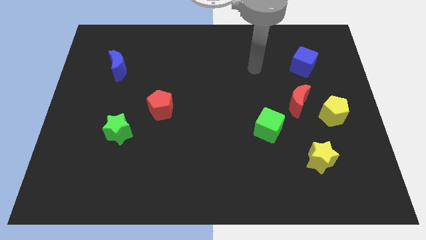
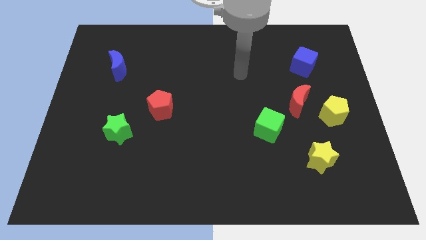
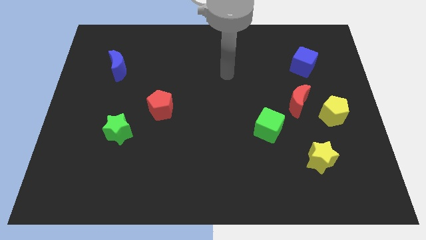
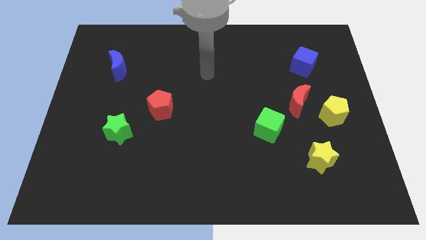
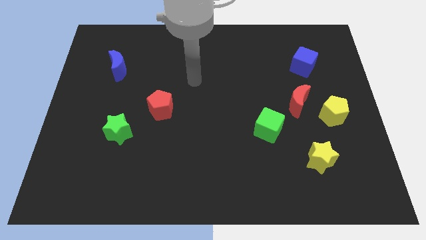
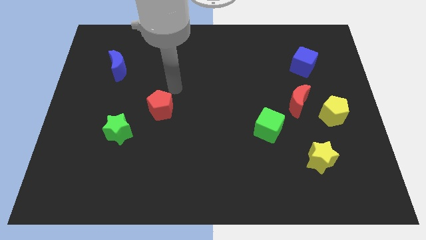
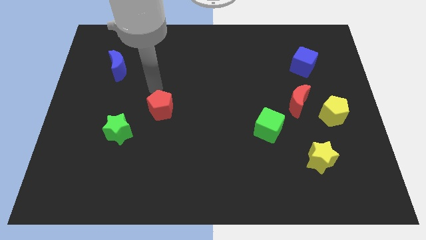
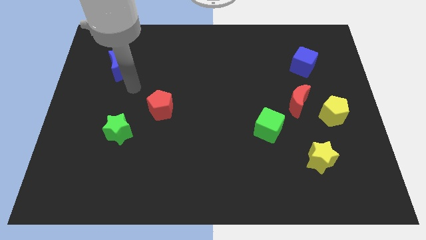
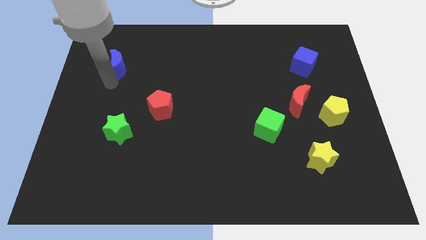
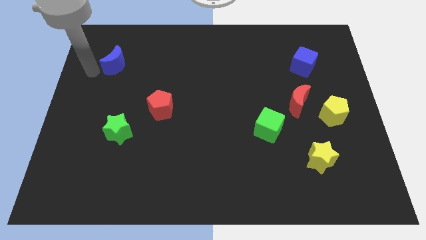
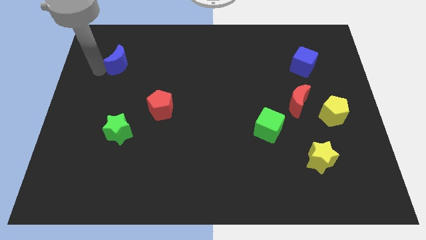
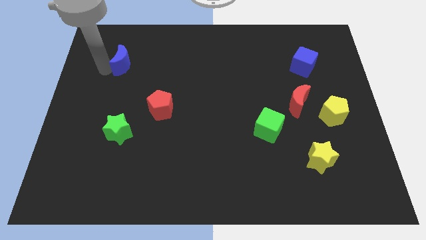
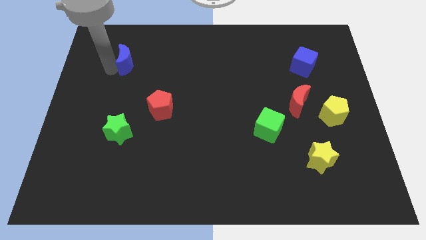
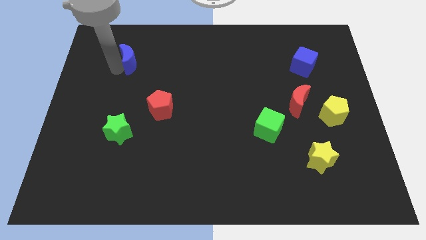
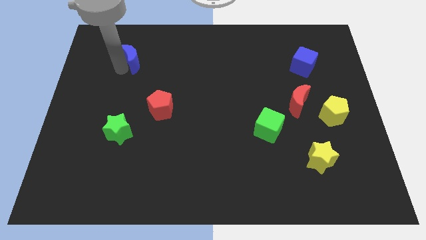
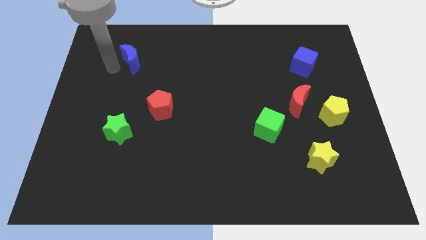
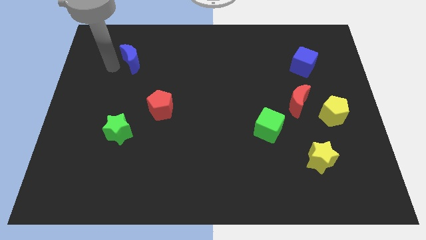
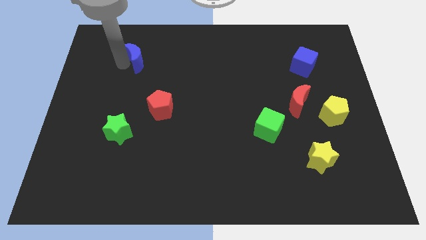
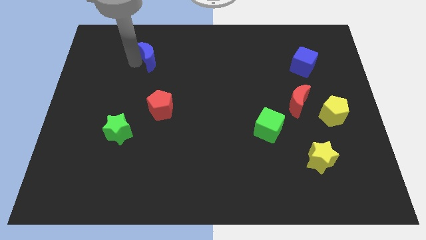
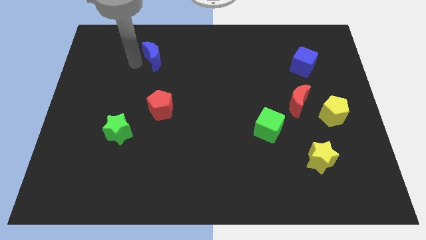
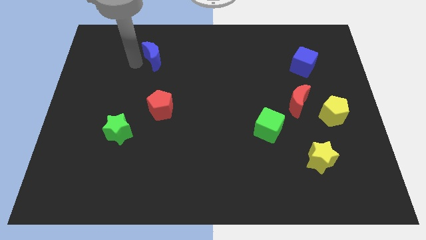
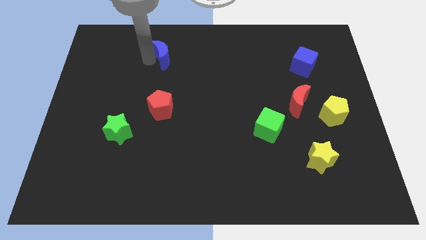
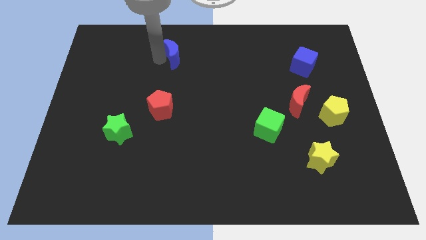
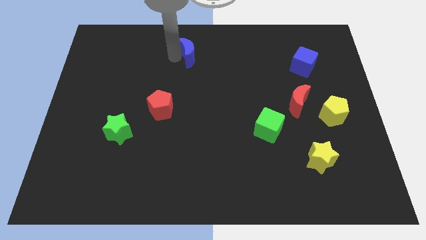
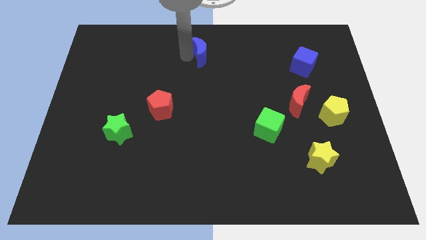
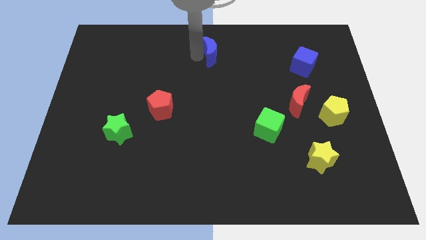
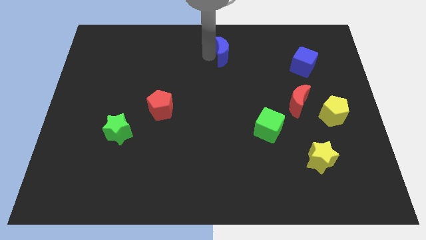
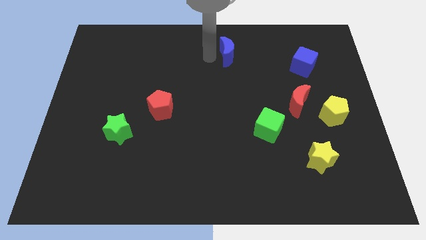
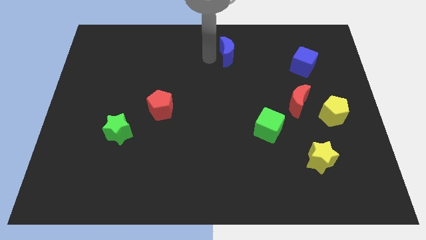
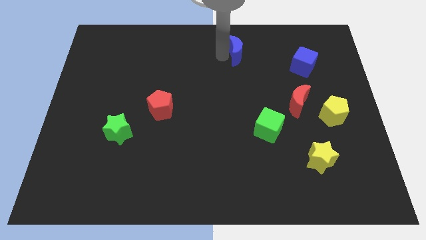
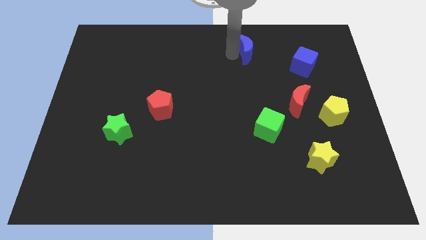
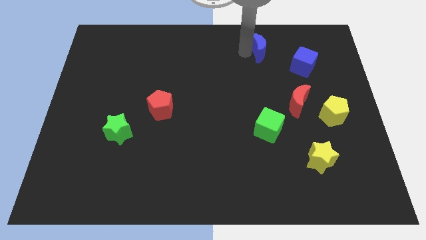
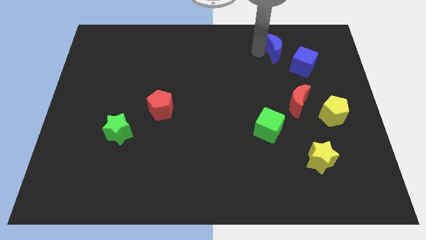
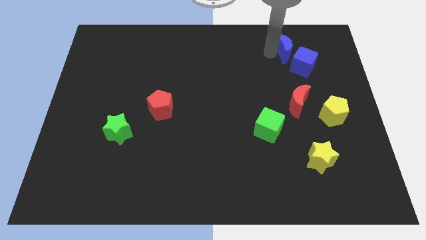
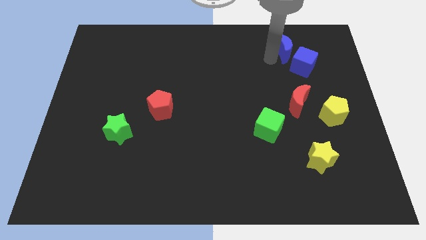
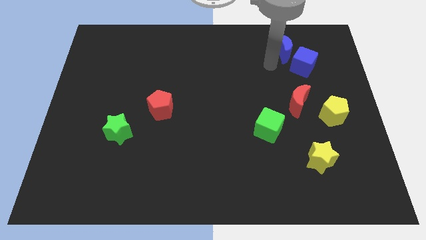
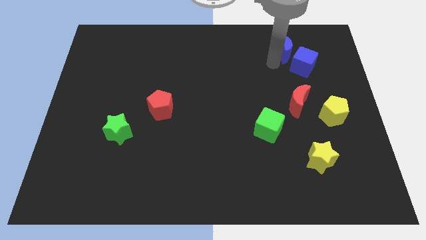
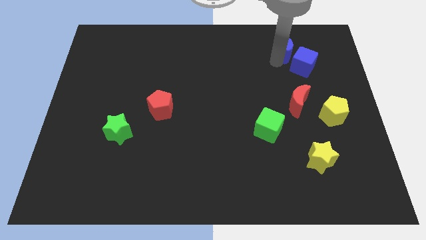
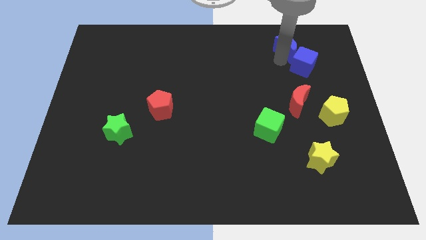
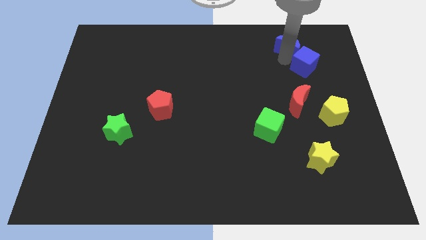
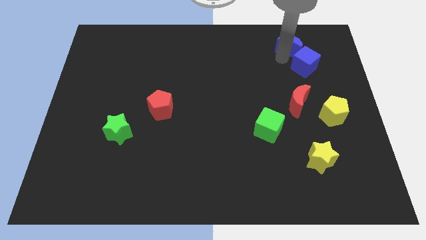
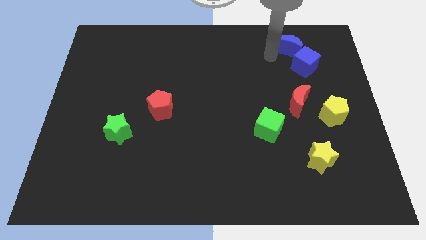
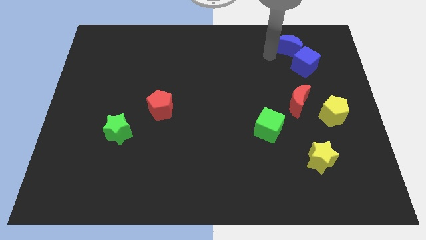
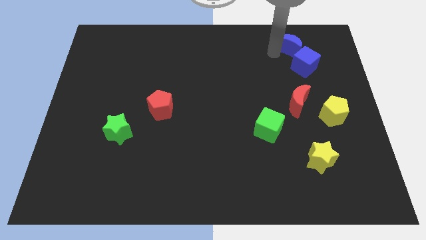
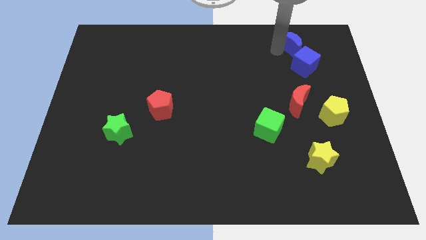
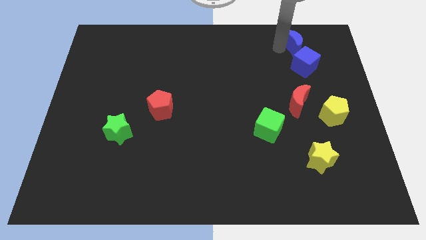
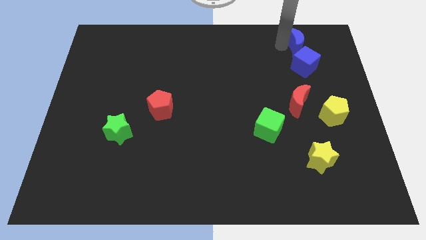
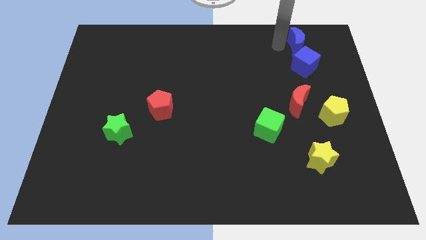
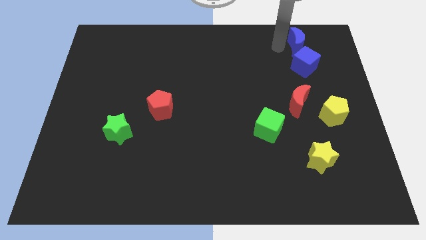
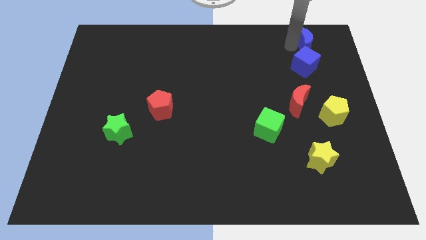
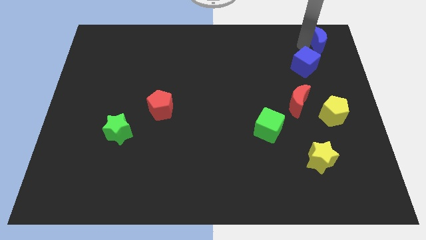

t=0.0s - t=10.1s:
slide the blue moon to the upper right corner

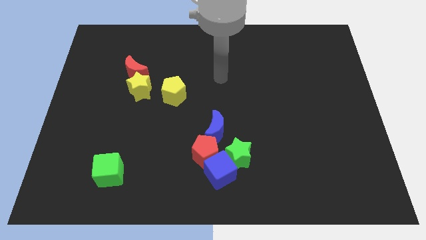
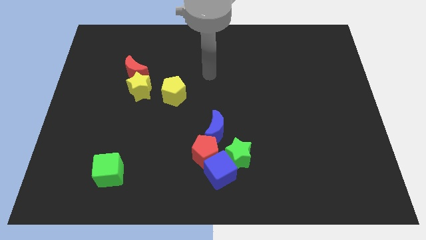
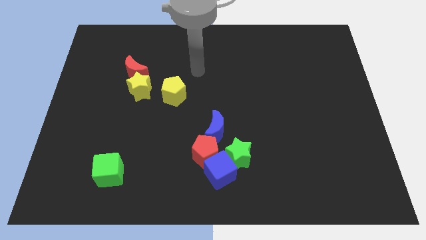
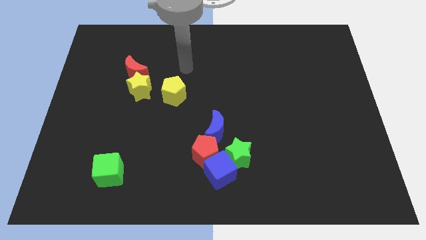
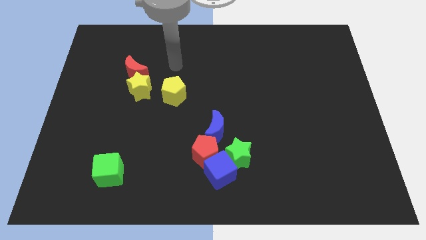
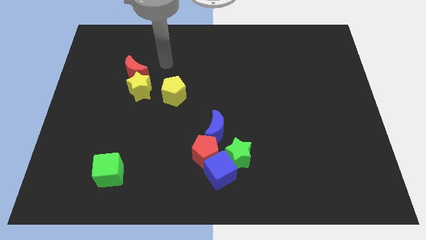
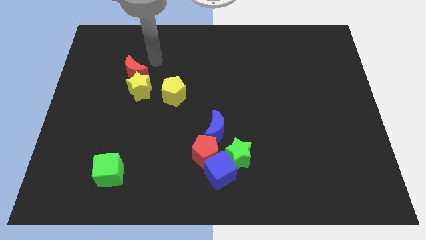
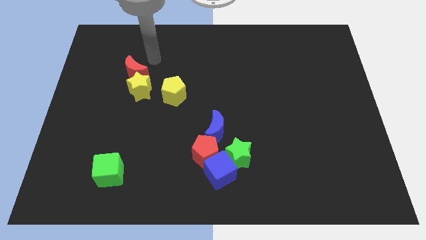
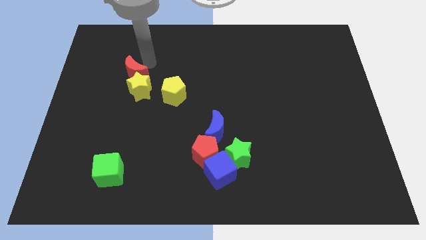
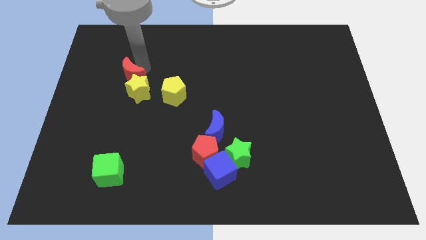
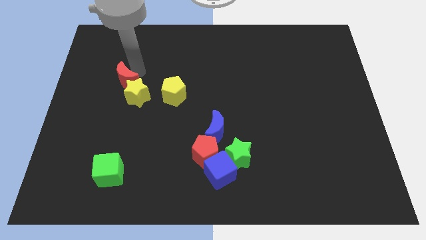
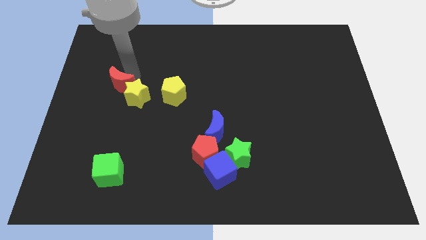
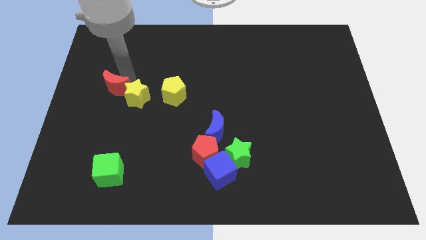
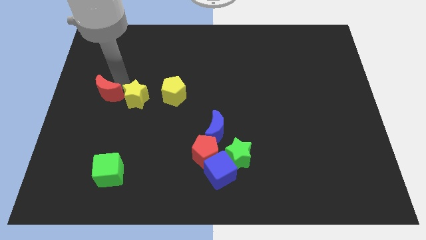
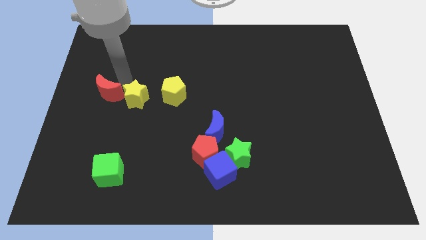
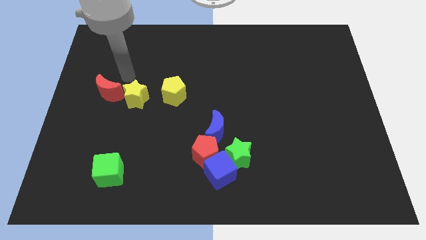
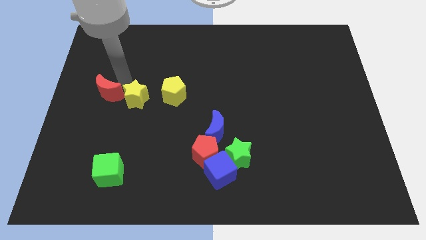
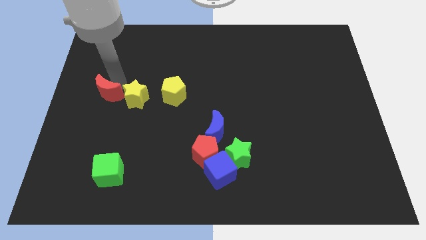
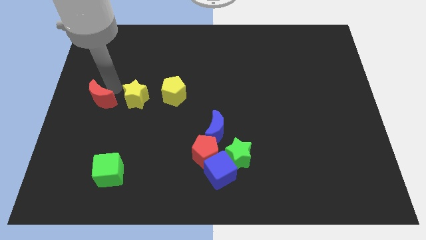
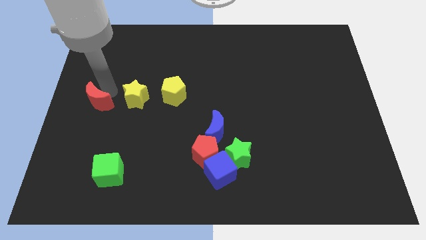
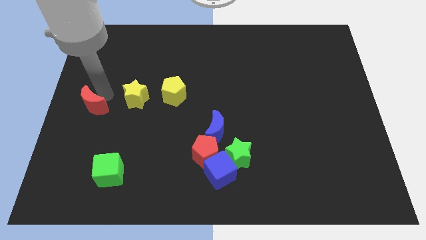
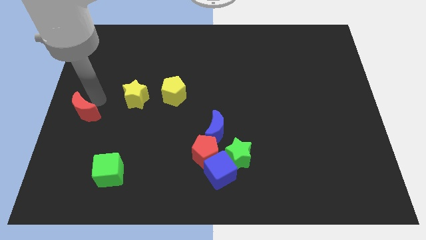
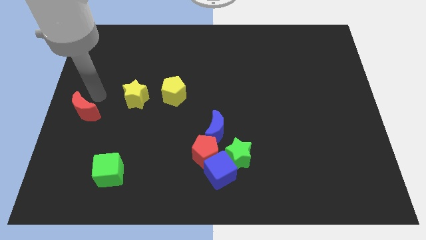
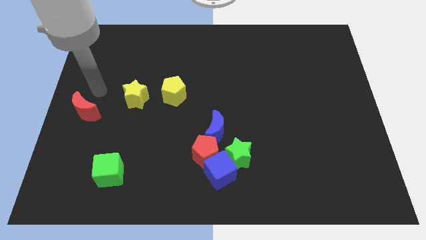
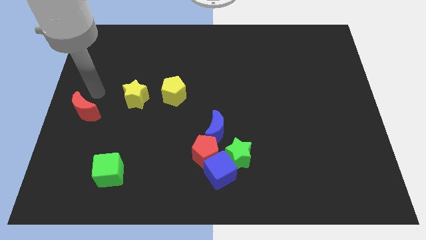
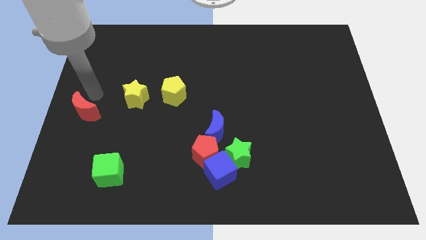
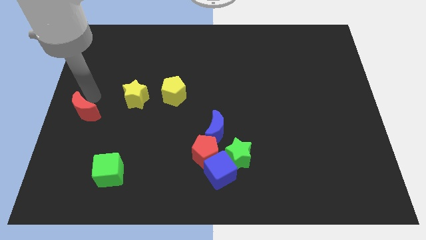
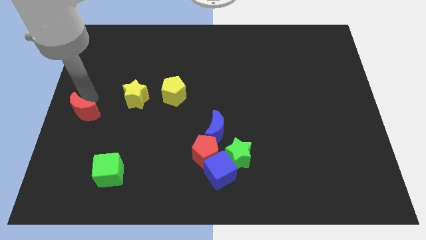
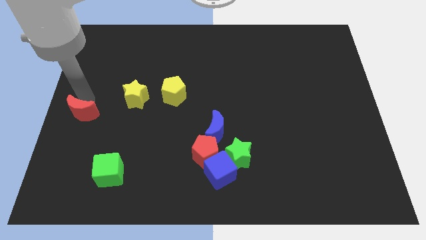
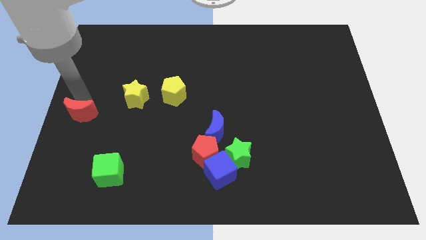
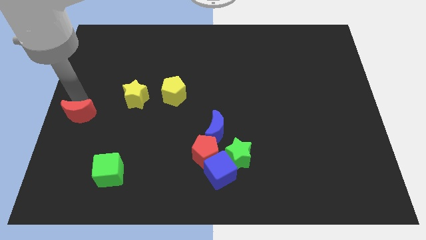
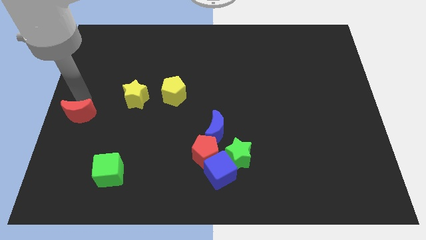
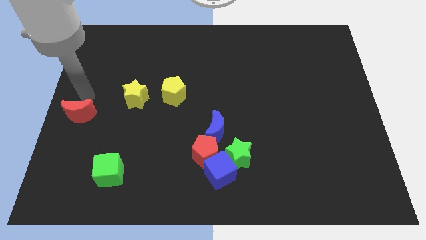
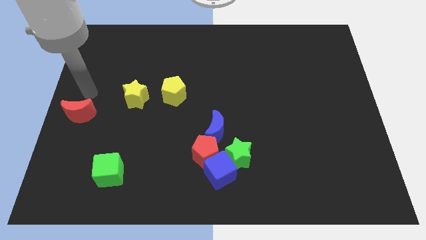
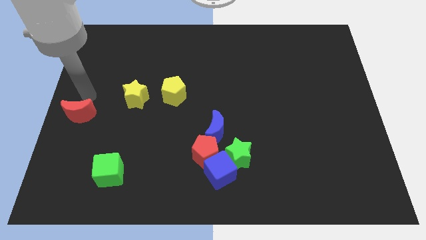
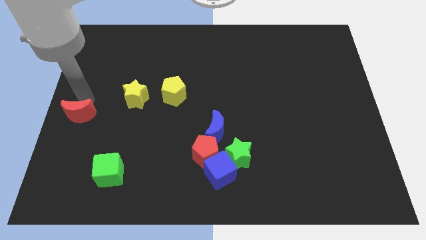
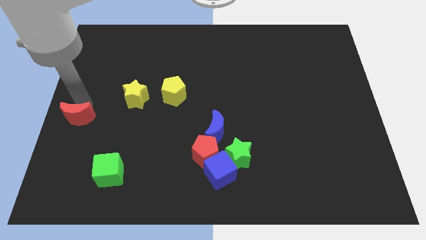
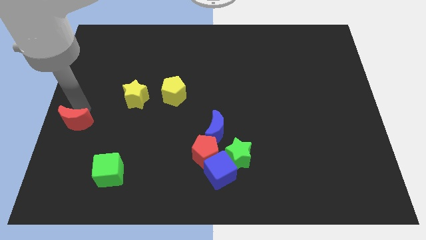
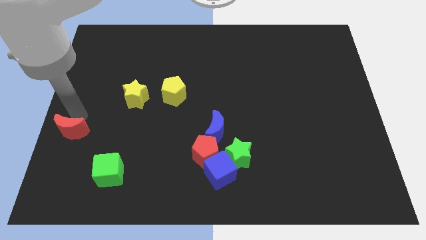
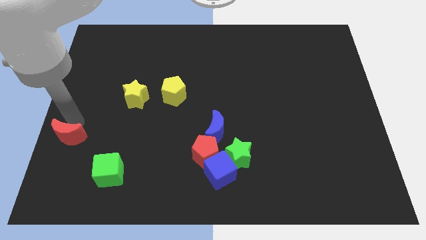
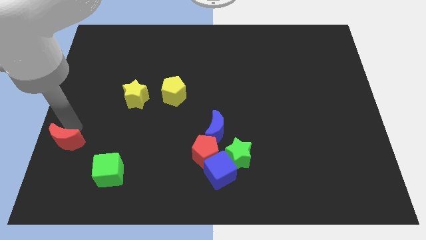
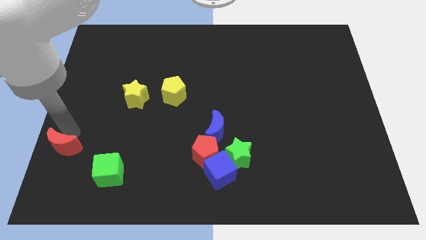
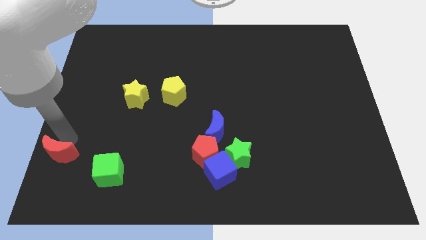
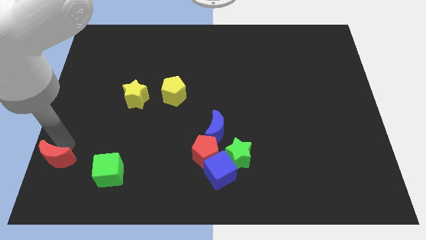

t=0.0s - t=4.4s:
put the red moon to the bottom left corner
